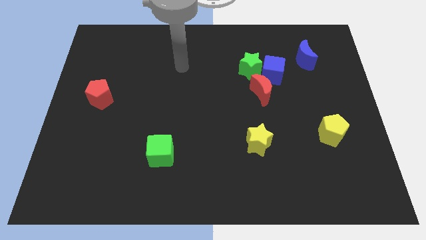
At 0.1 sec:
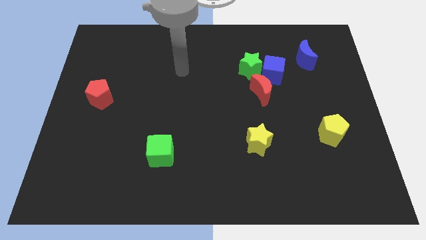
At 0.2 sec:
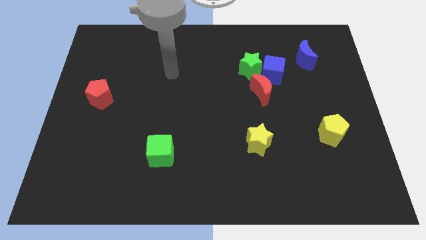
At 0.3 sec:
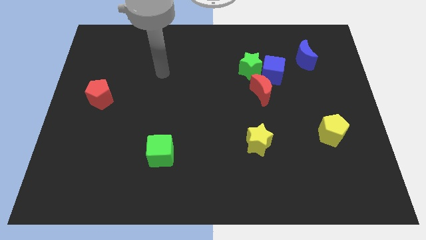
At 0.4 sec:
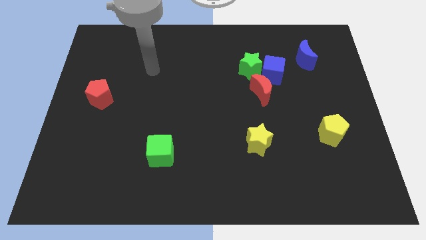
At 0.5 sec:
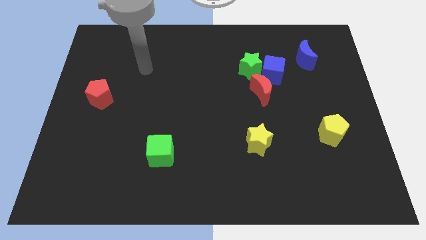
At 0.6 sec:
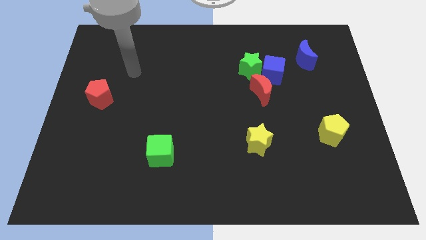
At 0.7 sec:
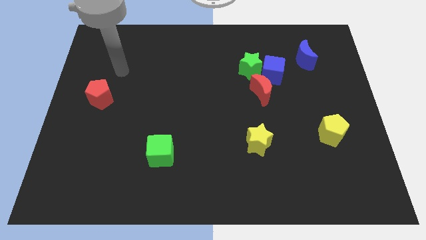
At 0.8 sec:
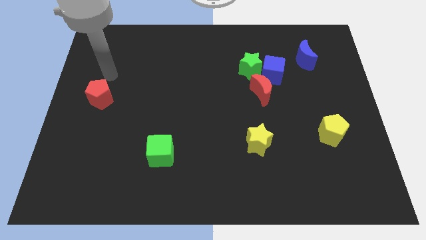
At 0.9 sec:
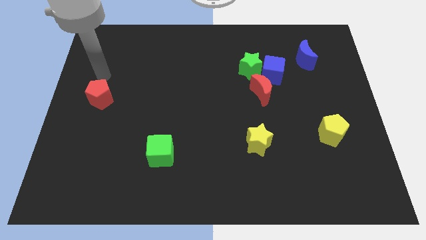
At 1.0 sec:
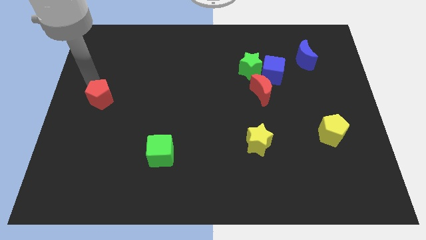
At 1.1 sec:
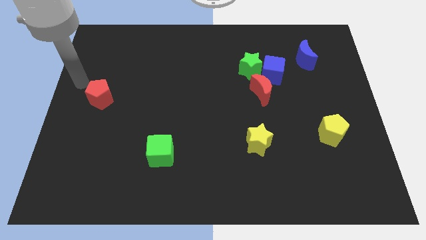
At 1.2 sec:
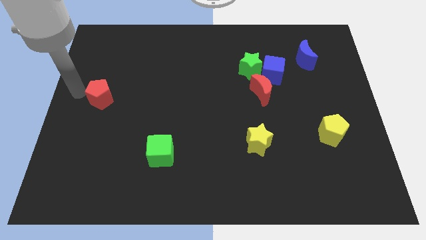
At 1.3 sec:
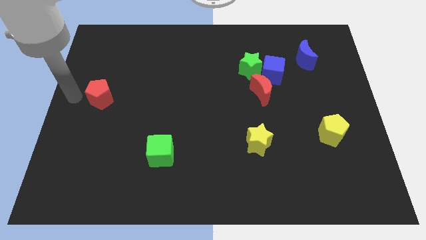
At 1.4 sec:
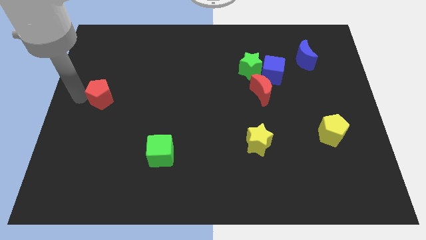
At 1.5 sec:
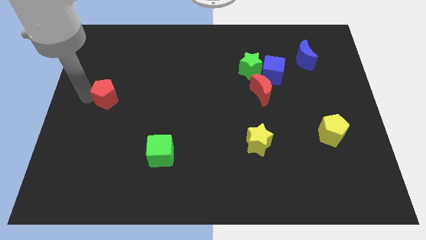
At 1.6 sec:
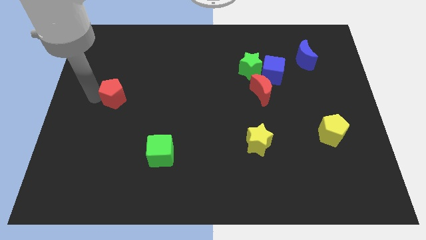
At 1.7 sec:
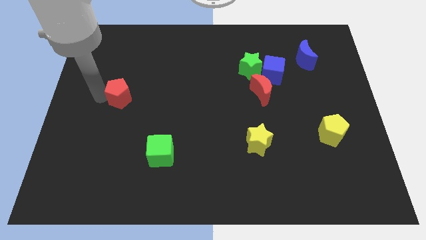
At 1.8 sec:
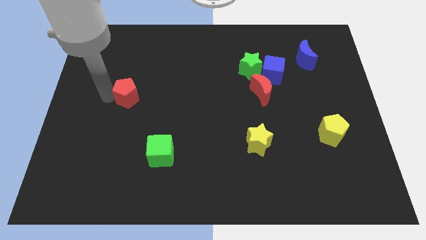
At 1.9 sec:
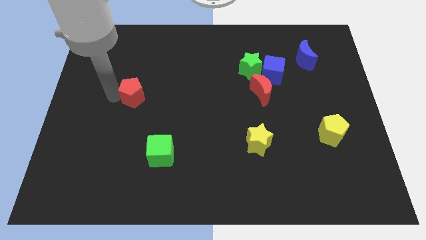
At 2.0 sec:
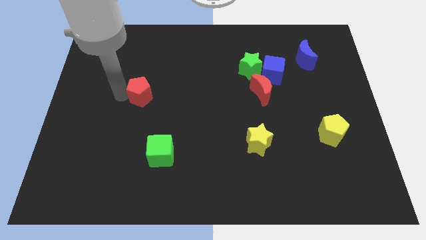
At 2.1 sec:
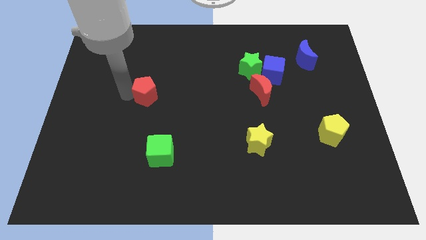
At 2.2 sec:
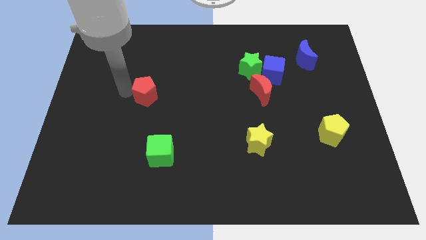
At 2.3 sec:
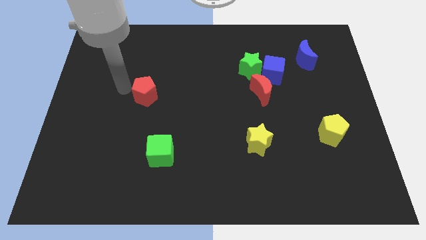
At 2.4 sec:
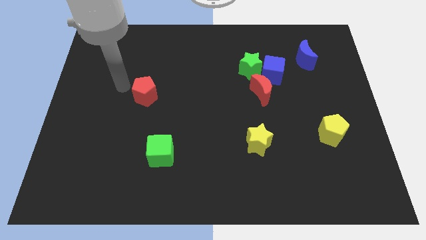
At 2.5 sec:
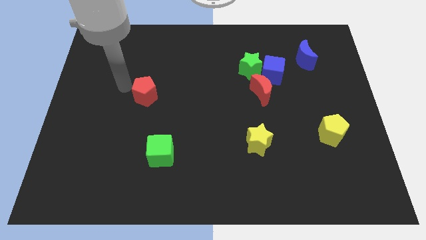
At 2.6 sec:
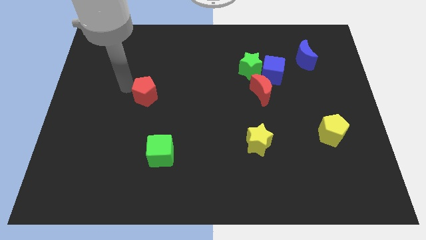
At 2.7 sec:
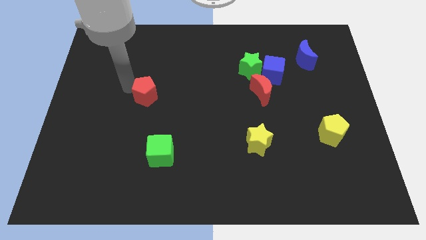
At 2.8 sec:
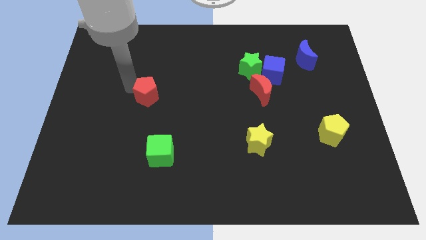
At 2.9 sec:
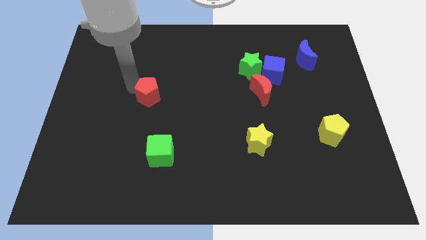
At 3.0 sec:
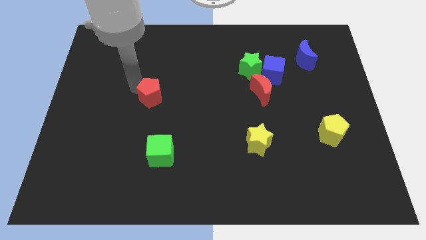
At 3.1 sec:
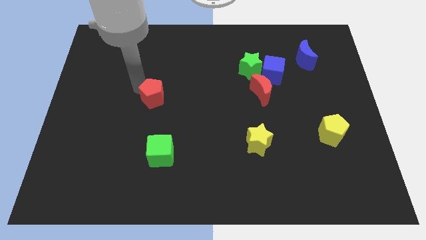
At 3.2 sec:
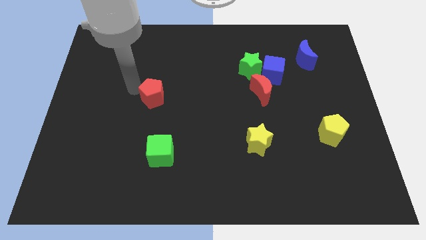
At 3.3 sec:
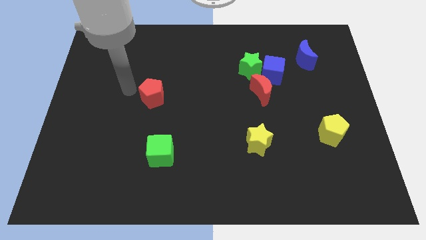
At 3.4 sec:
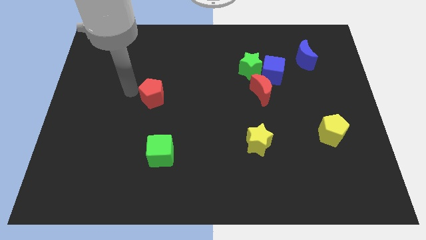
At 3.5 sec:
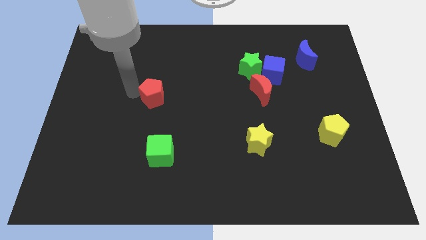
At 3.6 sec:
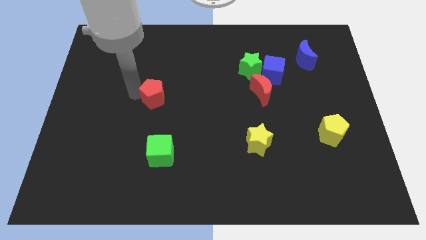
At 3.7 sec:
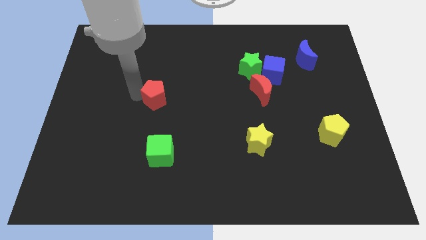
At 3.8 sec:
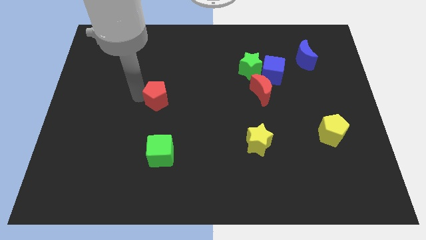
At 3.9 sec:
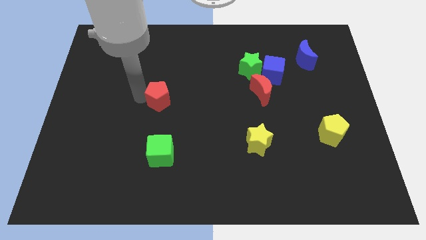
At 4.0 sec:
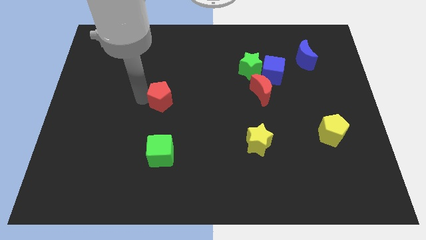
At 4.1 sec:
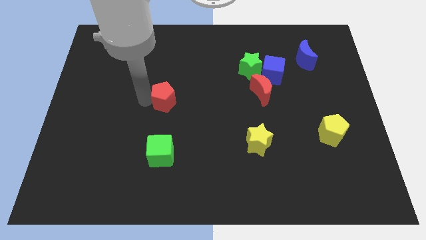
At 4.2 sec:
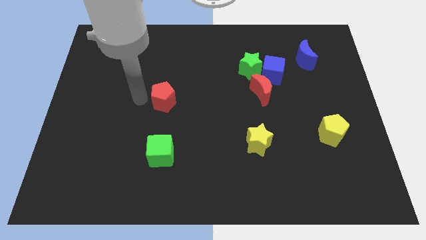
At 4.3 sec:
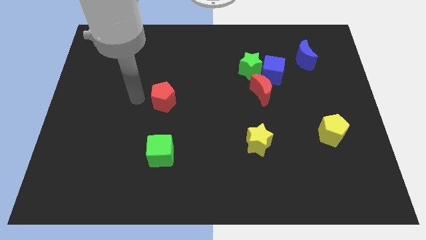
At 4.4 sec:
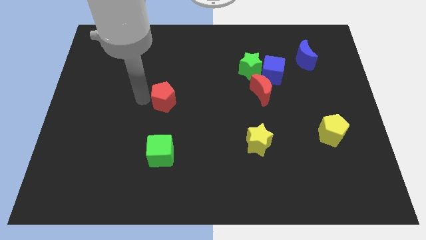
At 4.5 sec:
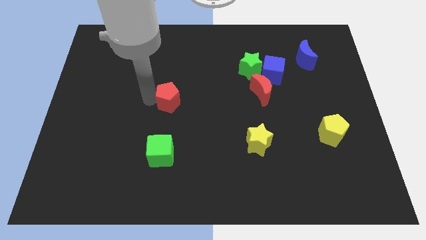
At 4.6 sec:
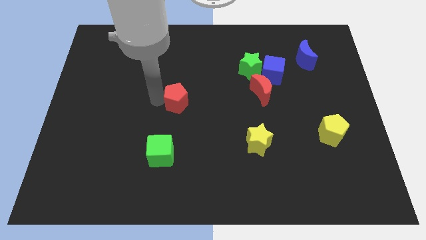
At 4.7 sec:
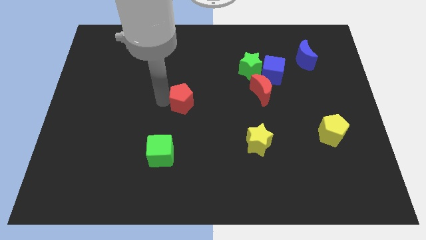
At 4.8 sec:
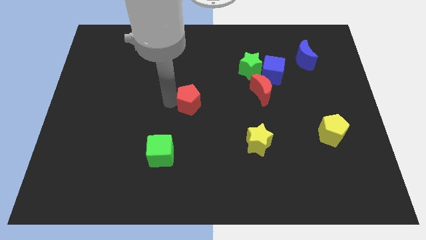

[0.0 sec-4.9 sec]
move the red pentagon to the right

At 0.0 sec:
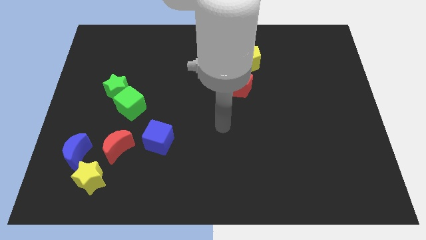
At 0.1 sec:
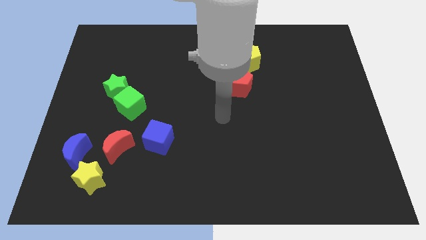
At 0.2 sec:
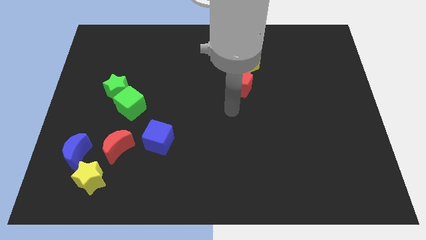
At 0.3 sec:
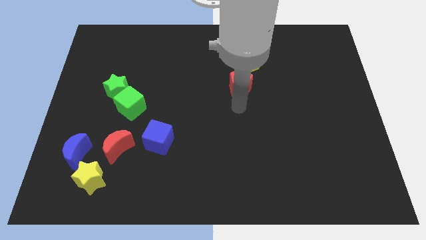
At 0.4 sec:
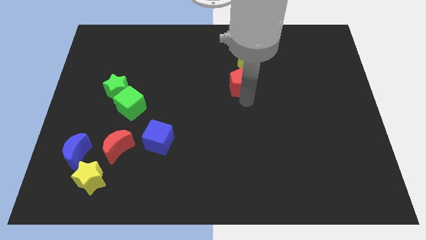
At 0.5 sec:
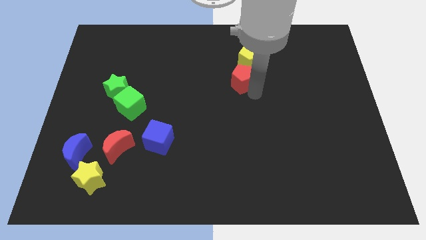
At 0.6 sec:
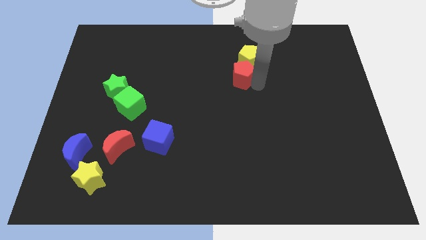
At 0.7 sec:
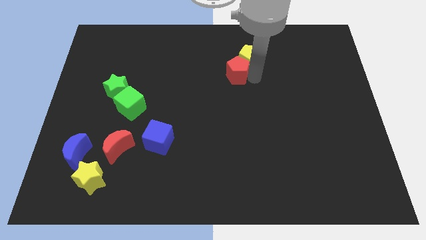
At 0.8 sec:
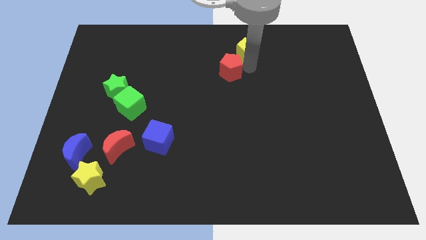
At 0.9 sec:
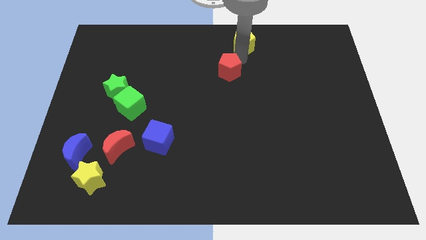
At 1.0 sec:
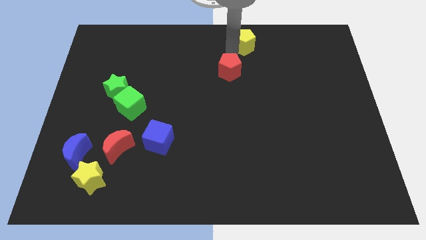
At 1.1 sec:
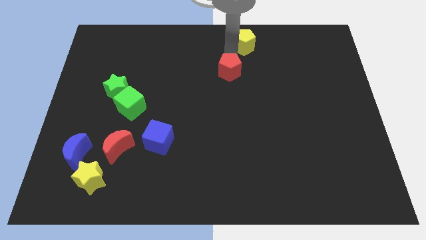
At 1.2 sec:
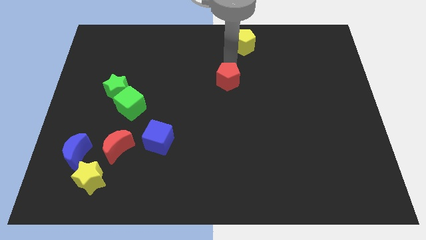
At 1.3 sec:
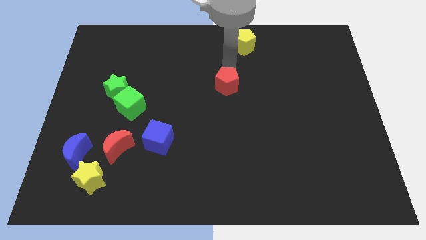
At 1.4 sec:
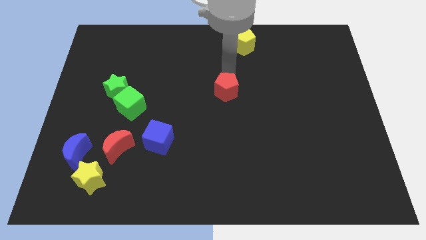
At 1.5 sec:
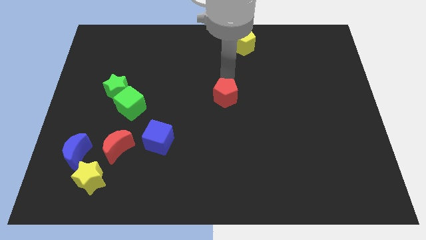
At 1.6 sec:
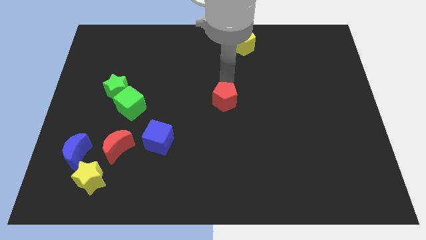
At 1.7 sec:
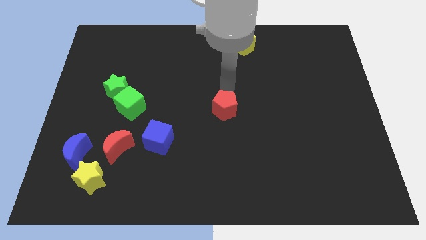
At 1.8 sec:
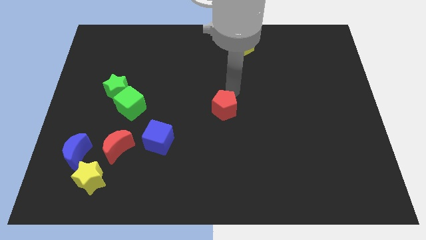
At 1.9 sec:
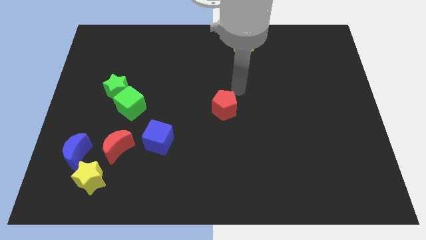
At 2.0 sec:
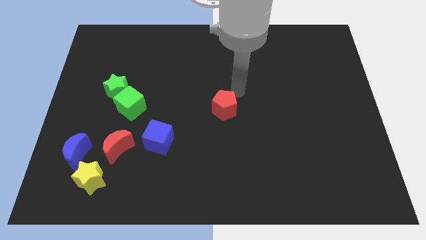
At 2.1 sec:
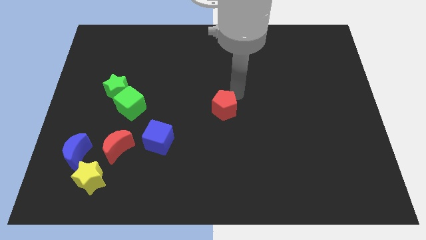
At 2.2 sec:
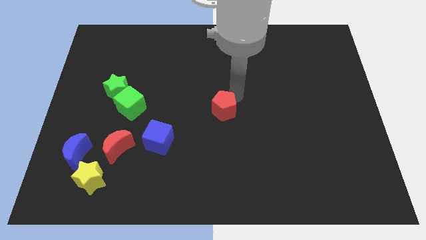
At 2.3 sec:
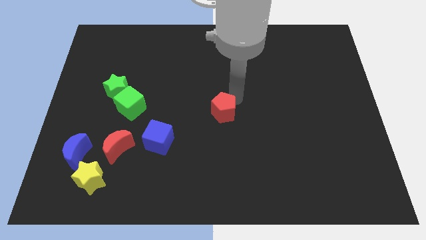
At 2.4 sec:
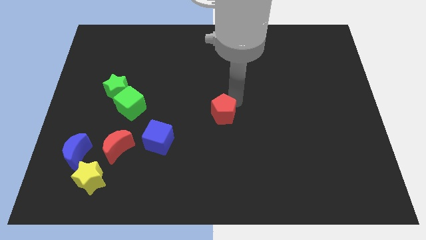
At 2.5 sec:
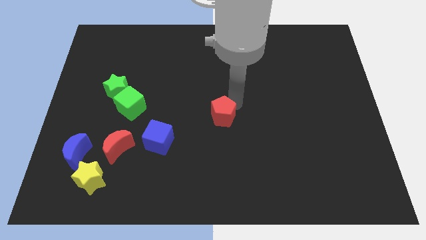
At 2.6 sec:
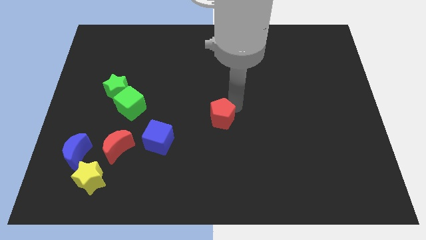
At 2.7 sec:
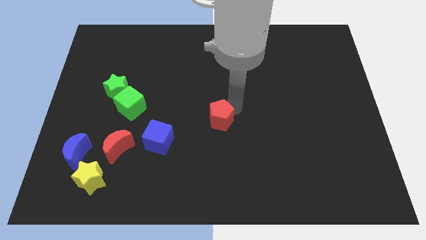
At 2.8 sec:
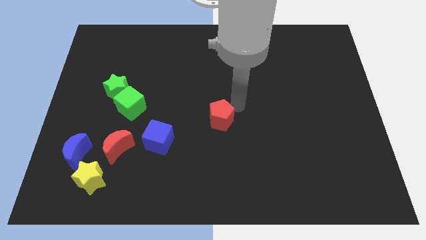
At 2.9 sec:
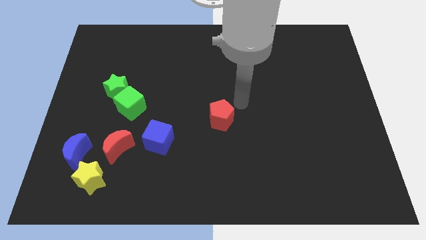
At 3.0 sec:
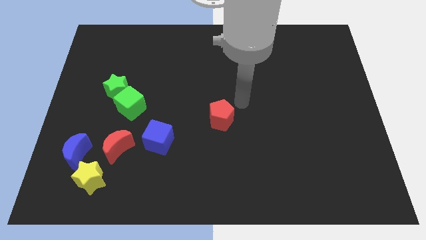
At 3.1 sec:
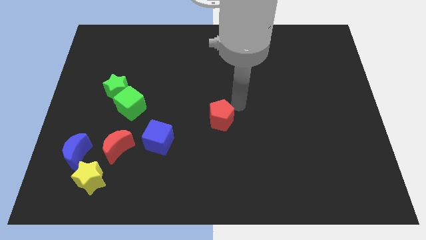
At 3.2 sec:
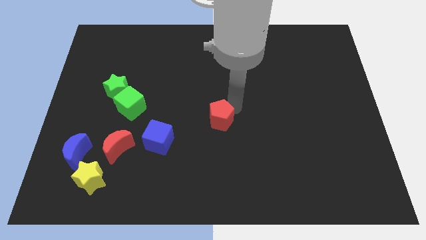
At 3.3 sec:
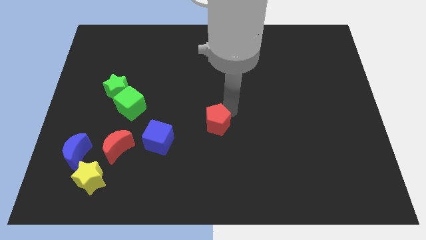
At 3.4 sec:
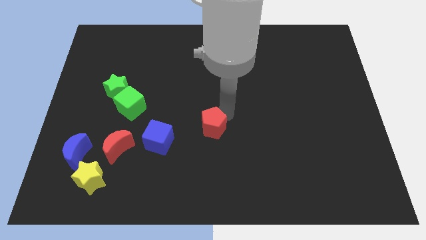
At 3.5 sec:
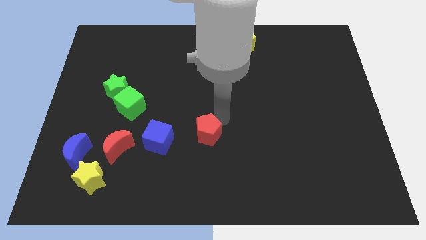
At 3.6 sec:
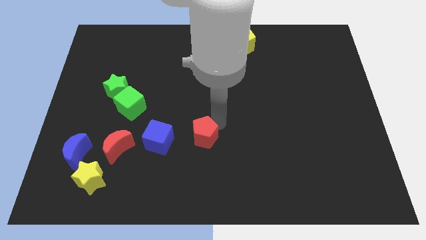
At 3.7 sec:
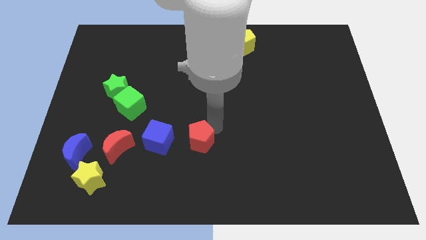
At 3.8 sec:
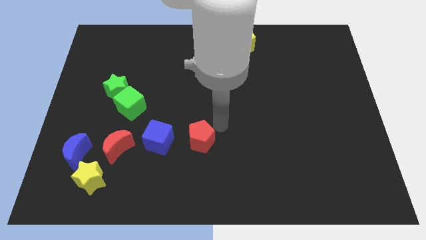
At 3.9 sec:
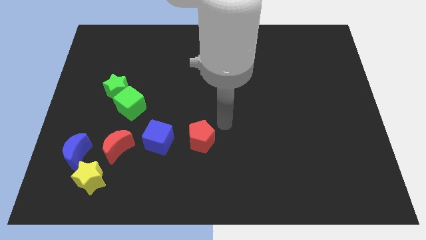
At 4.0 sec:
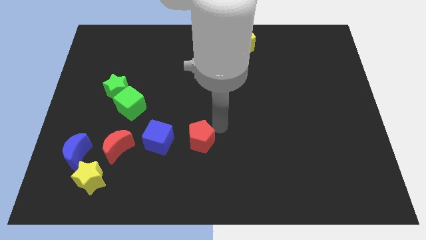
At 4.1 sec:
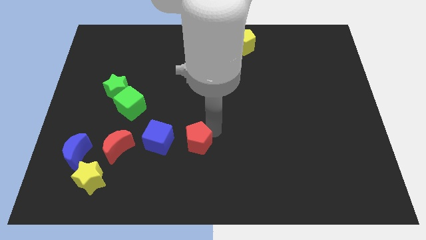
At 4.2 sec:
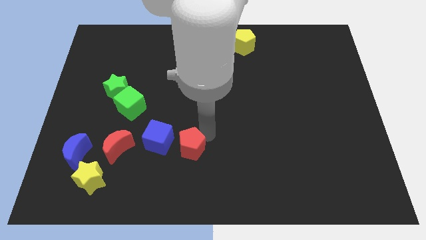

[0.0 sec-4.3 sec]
slide the red pentagon downwards and then to the left
